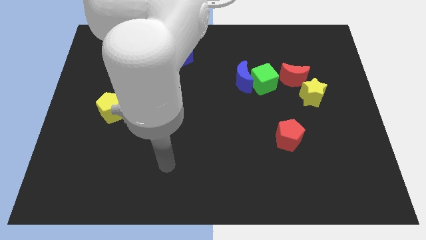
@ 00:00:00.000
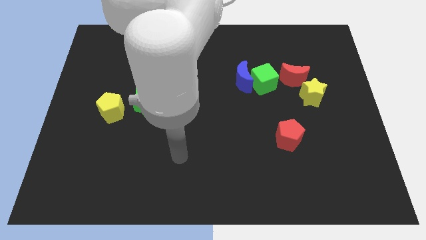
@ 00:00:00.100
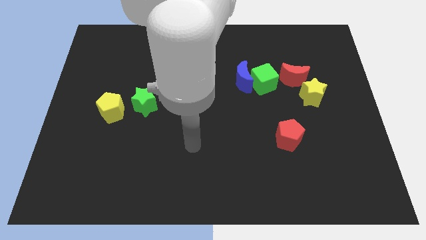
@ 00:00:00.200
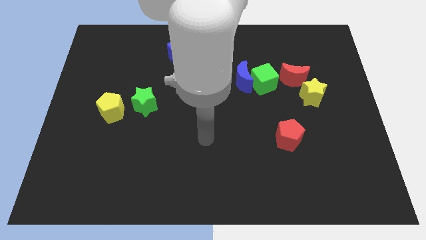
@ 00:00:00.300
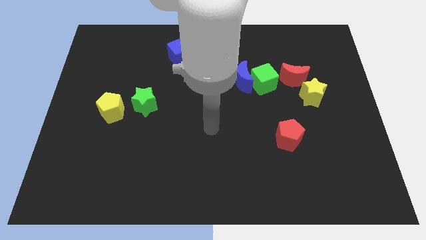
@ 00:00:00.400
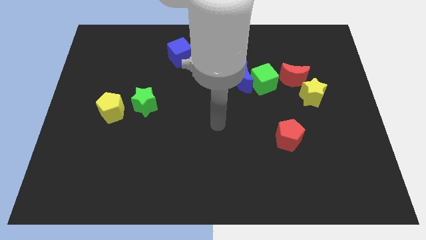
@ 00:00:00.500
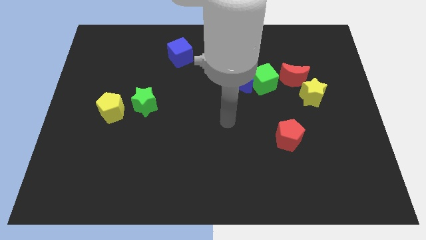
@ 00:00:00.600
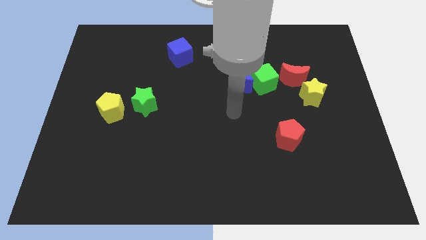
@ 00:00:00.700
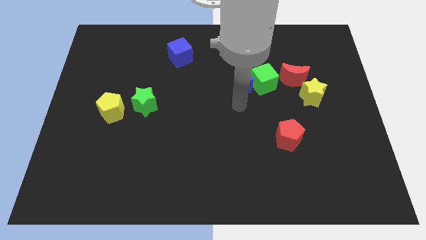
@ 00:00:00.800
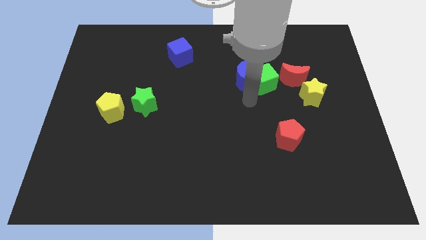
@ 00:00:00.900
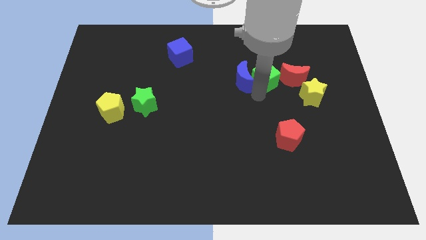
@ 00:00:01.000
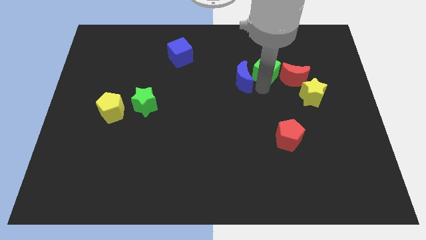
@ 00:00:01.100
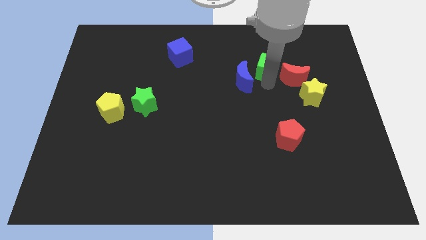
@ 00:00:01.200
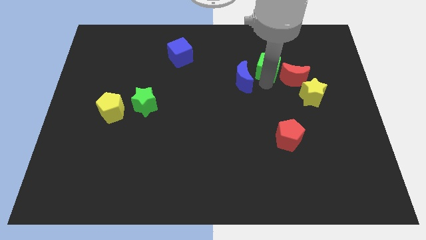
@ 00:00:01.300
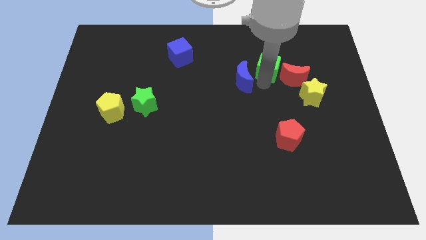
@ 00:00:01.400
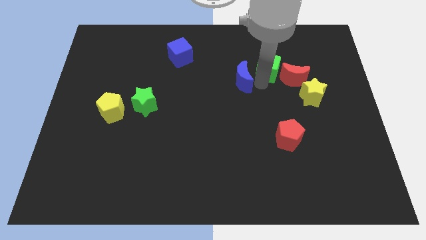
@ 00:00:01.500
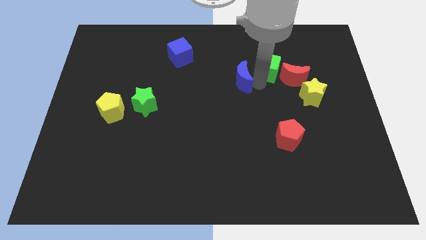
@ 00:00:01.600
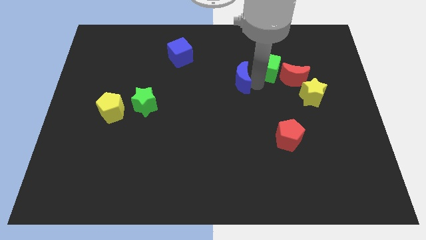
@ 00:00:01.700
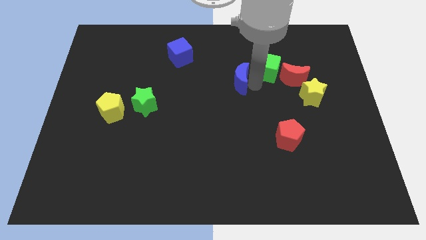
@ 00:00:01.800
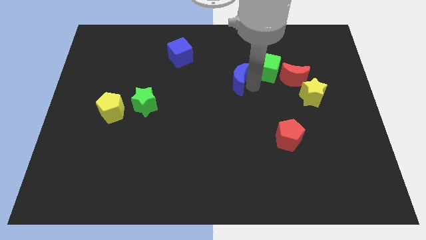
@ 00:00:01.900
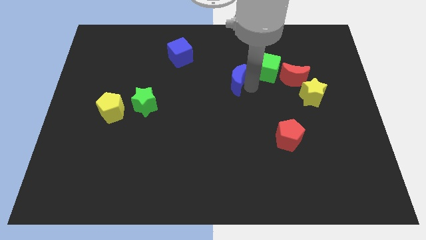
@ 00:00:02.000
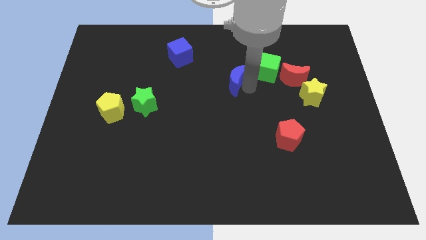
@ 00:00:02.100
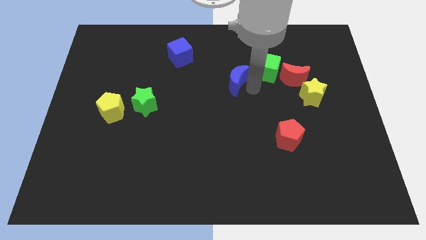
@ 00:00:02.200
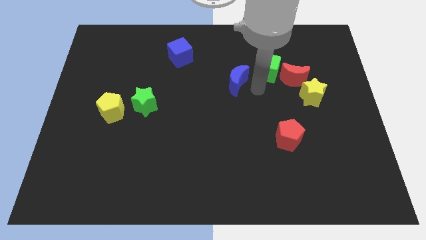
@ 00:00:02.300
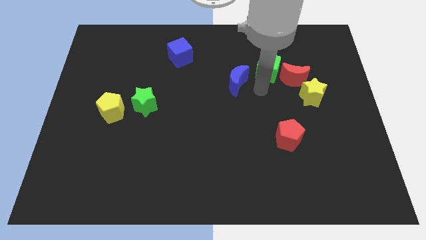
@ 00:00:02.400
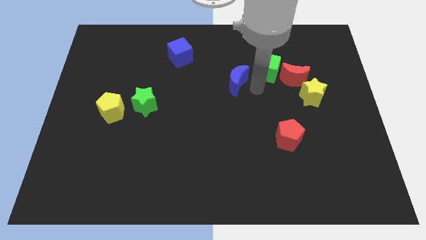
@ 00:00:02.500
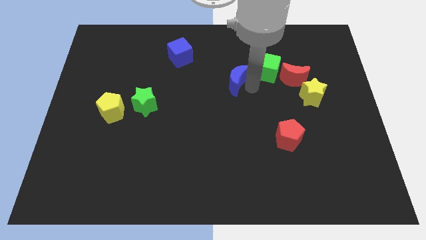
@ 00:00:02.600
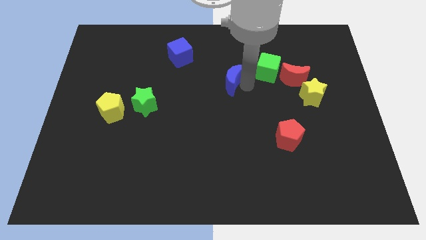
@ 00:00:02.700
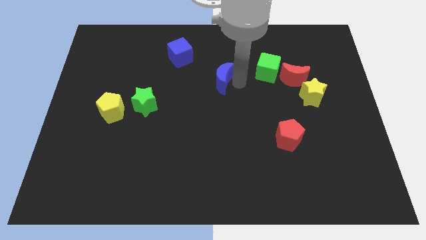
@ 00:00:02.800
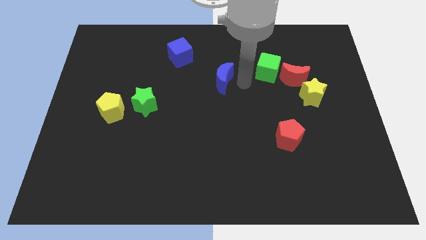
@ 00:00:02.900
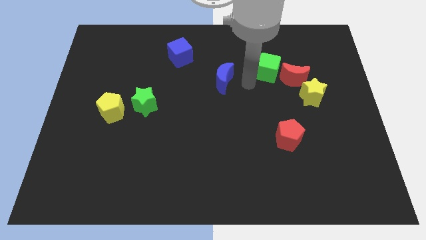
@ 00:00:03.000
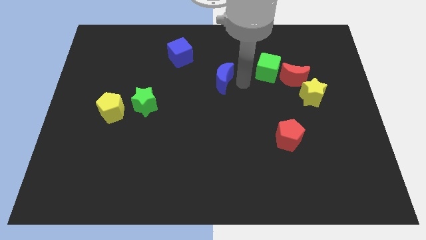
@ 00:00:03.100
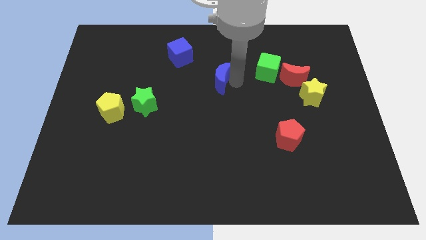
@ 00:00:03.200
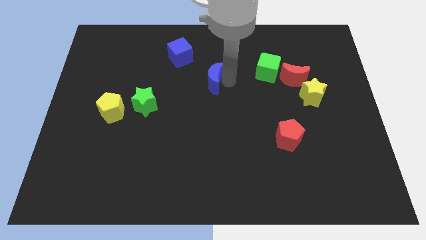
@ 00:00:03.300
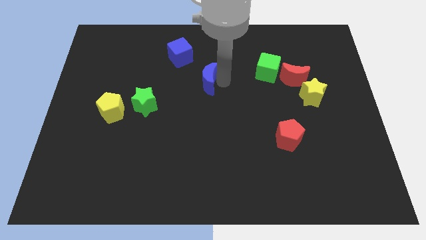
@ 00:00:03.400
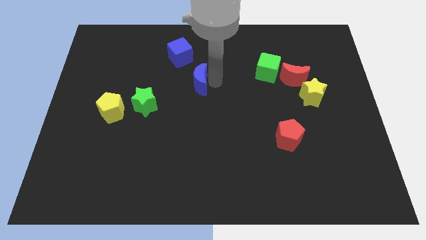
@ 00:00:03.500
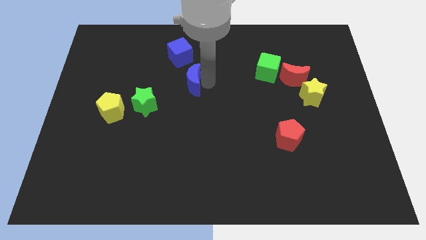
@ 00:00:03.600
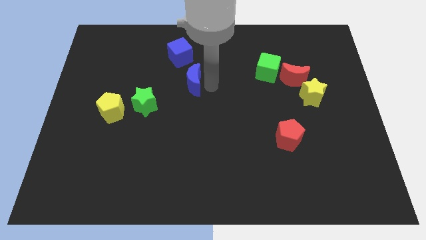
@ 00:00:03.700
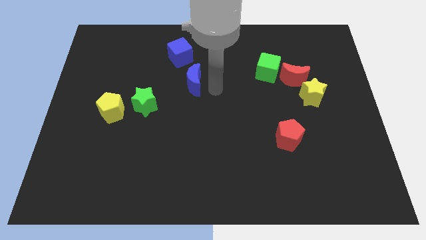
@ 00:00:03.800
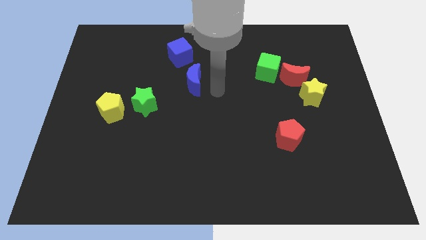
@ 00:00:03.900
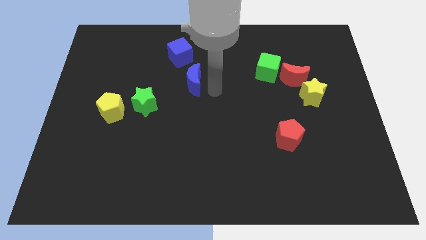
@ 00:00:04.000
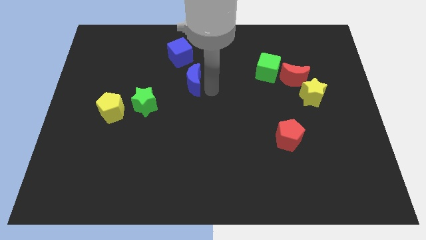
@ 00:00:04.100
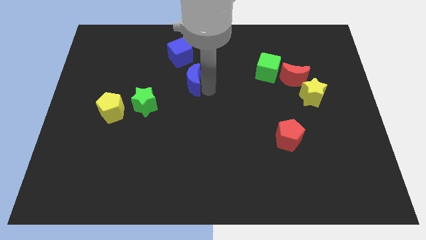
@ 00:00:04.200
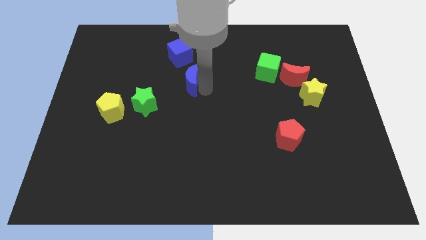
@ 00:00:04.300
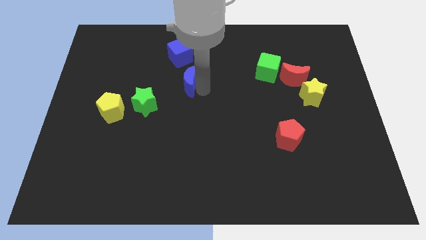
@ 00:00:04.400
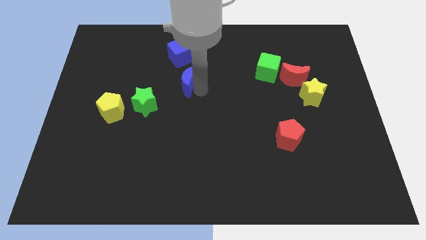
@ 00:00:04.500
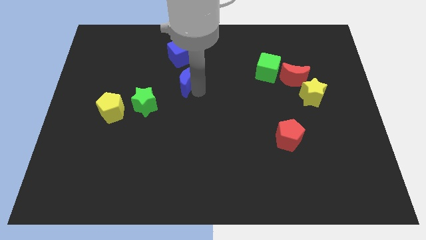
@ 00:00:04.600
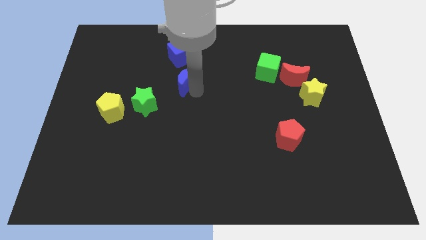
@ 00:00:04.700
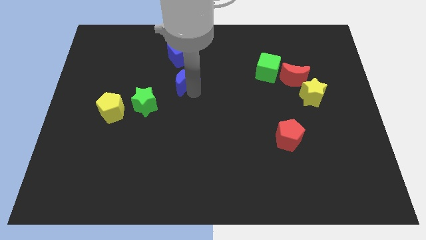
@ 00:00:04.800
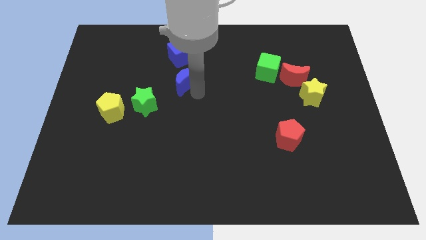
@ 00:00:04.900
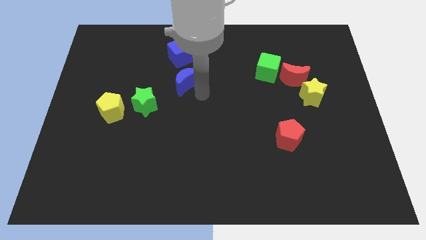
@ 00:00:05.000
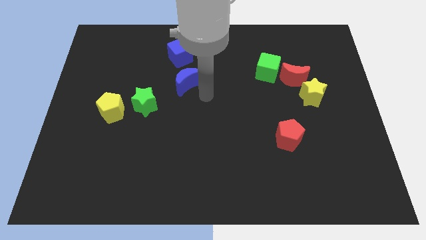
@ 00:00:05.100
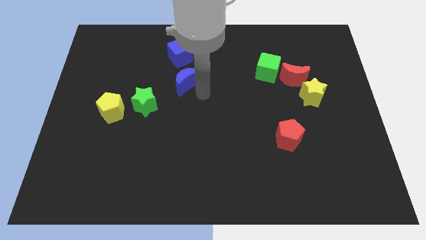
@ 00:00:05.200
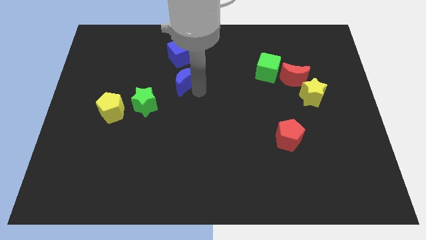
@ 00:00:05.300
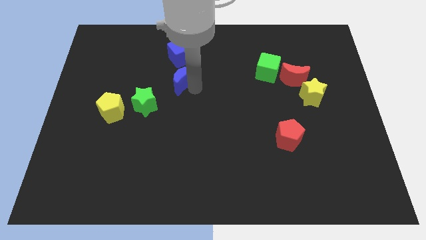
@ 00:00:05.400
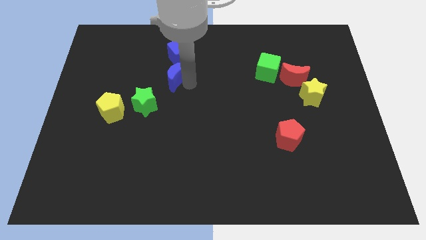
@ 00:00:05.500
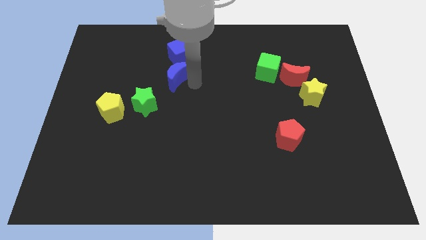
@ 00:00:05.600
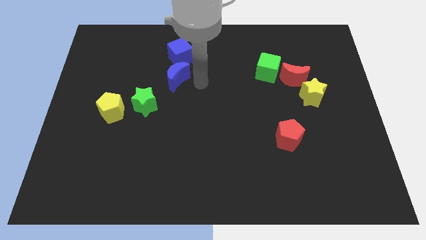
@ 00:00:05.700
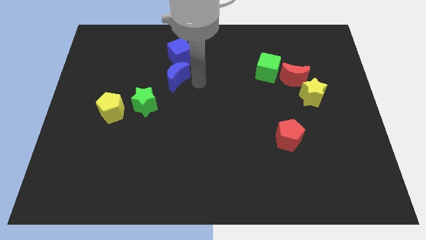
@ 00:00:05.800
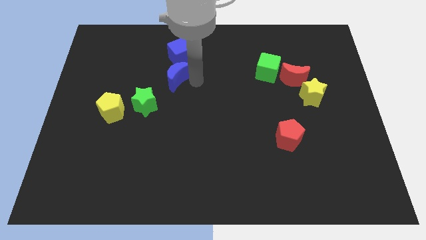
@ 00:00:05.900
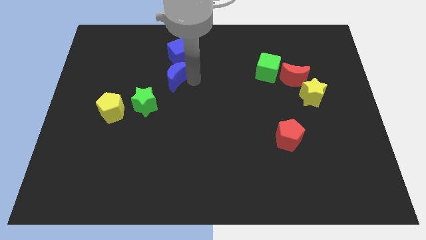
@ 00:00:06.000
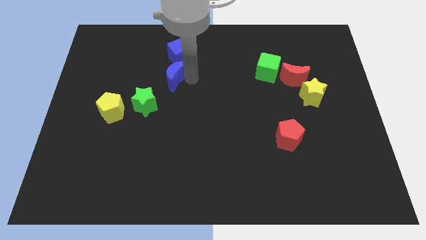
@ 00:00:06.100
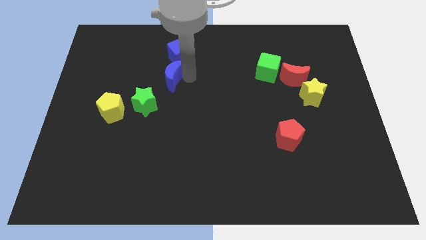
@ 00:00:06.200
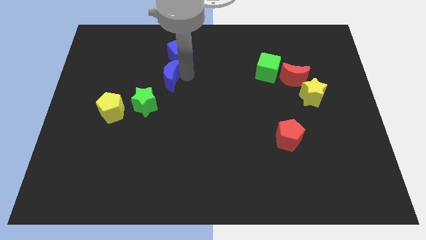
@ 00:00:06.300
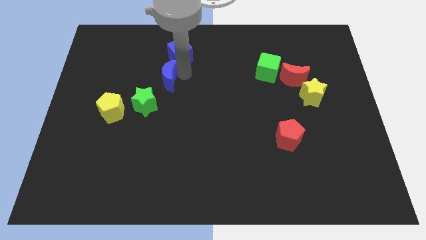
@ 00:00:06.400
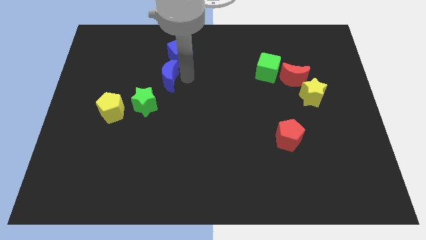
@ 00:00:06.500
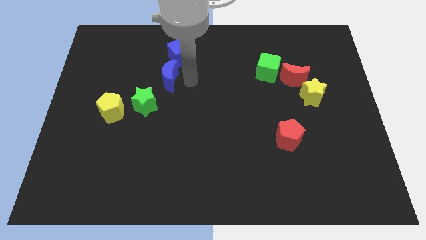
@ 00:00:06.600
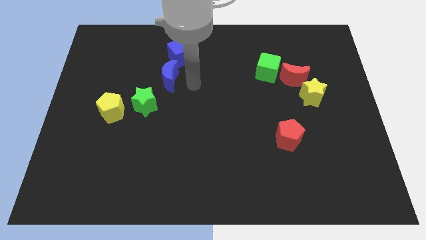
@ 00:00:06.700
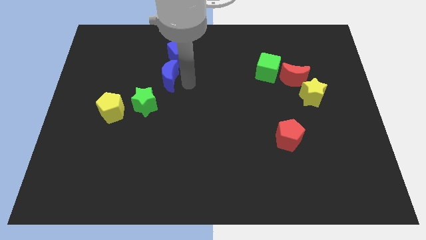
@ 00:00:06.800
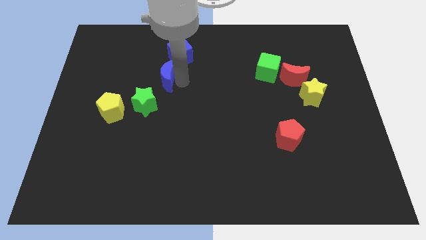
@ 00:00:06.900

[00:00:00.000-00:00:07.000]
move the blue moon to the top side of the green star

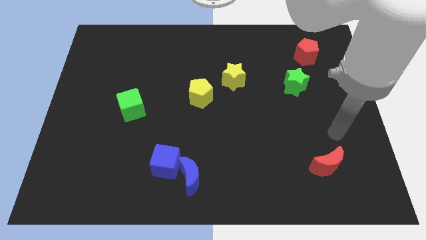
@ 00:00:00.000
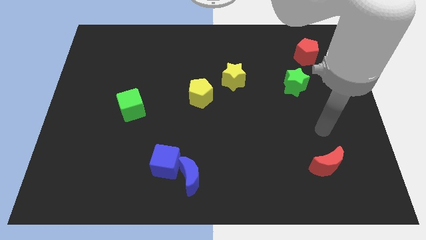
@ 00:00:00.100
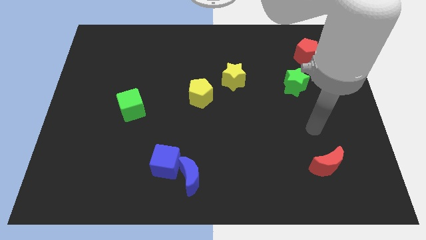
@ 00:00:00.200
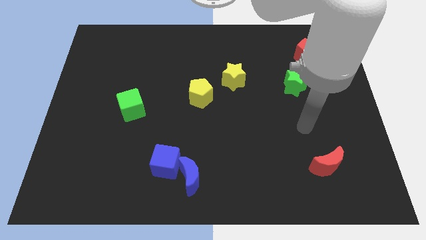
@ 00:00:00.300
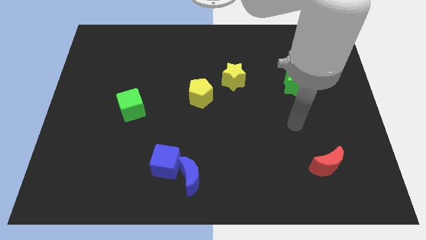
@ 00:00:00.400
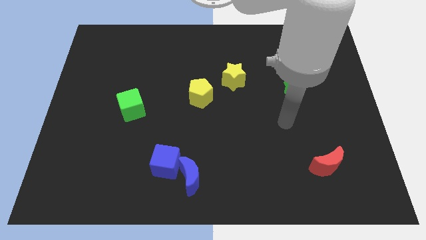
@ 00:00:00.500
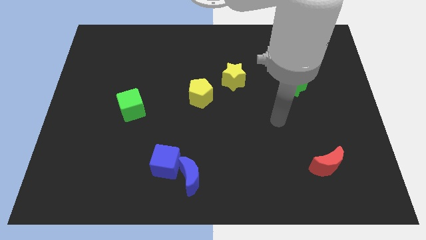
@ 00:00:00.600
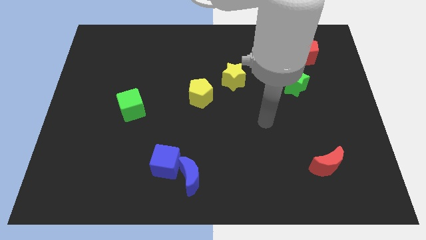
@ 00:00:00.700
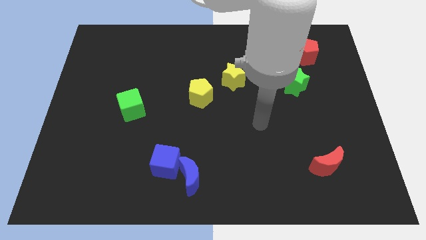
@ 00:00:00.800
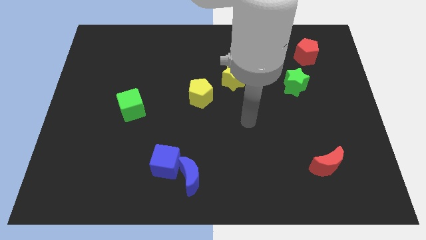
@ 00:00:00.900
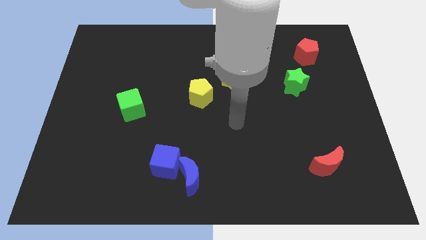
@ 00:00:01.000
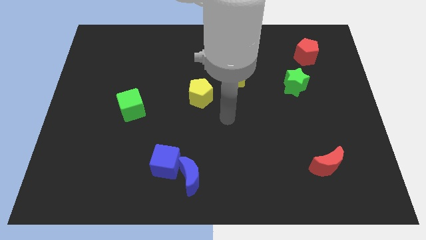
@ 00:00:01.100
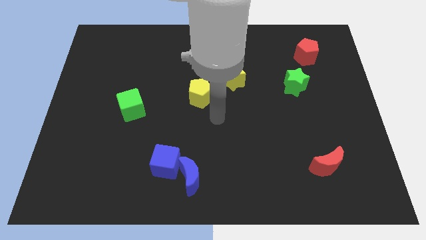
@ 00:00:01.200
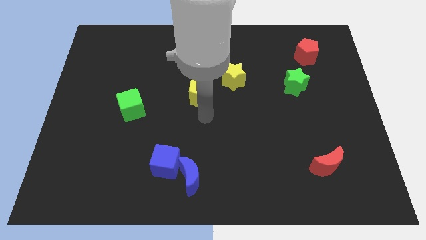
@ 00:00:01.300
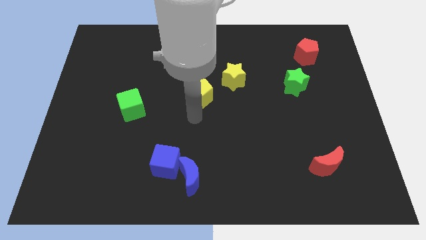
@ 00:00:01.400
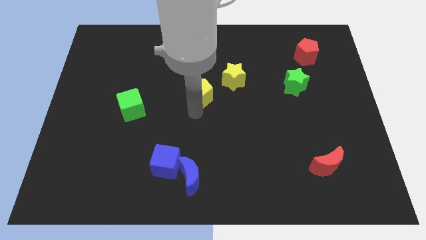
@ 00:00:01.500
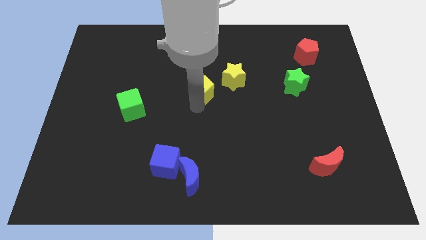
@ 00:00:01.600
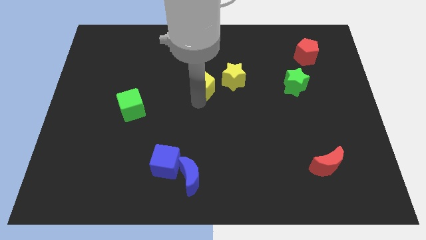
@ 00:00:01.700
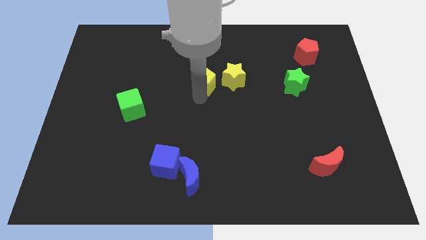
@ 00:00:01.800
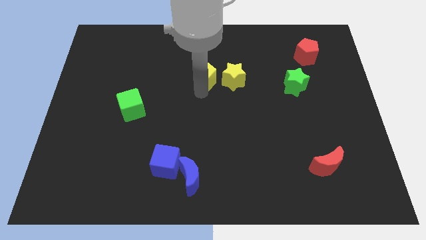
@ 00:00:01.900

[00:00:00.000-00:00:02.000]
push the yellow pentagon diagonally up and to the left of the yellow star
